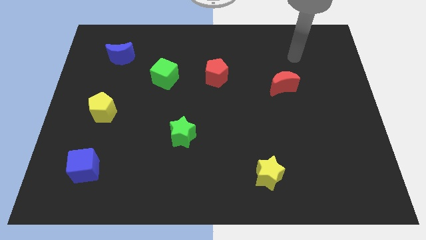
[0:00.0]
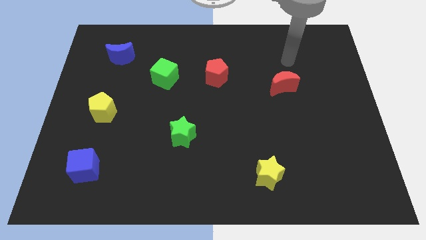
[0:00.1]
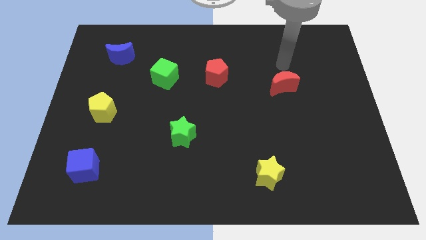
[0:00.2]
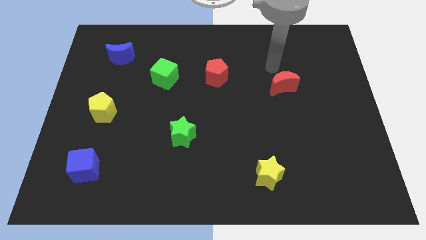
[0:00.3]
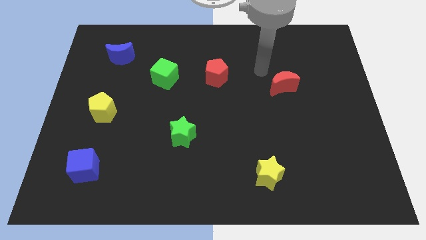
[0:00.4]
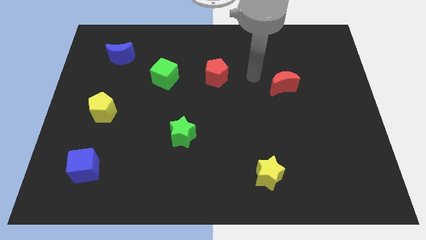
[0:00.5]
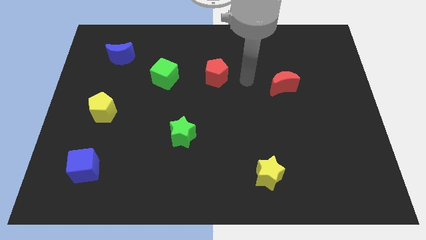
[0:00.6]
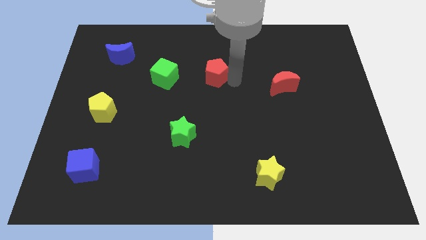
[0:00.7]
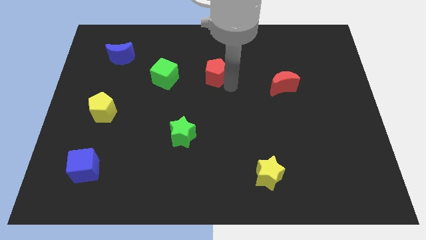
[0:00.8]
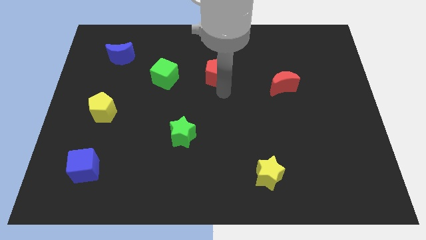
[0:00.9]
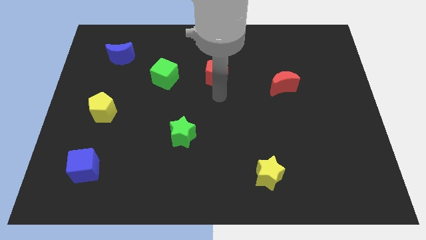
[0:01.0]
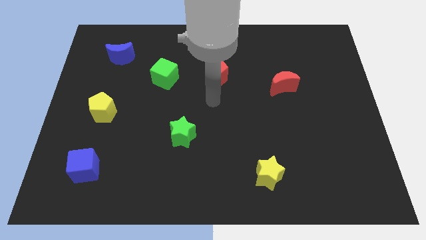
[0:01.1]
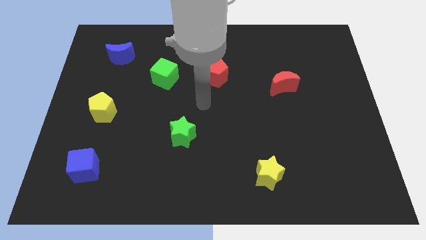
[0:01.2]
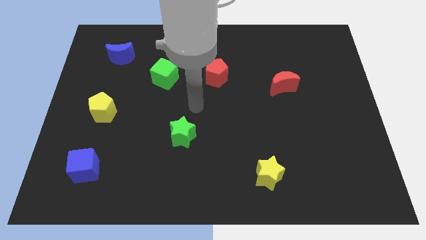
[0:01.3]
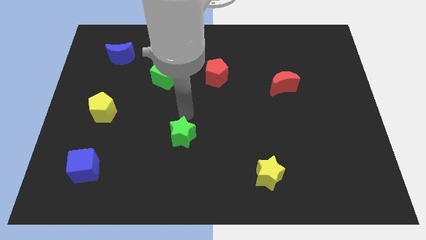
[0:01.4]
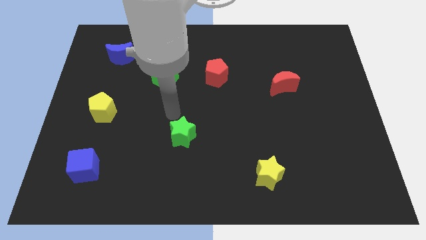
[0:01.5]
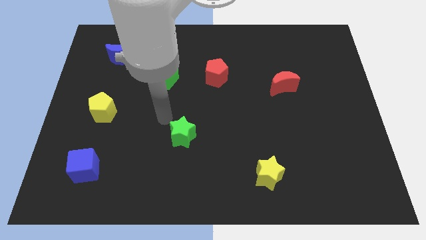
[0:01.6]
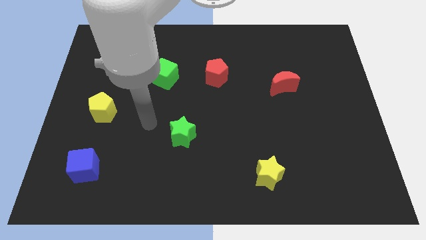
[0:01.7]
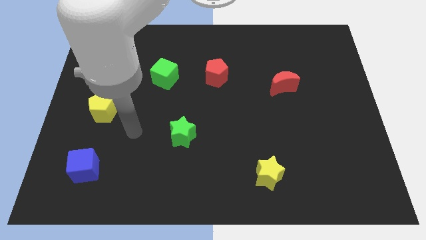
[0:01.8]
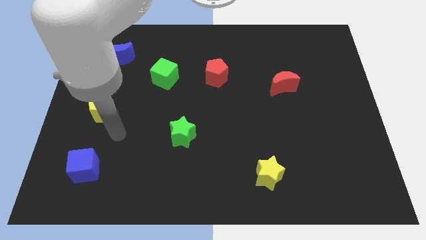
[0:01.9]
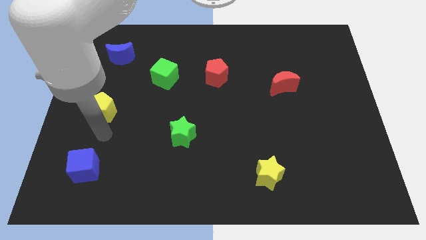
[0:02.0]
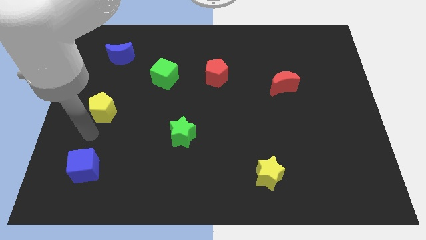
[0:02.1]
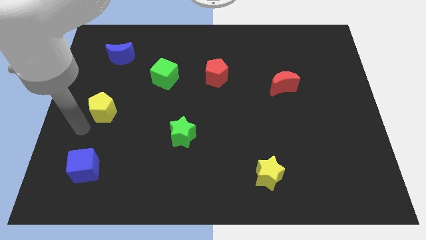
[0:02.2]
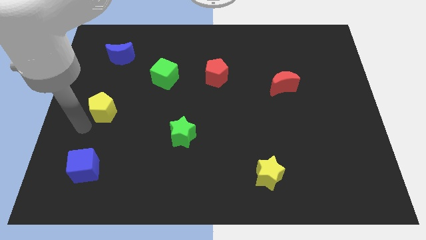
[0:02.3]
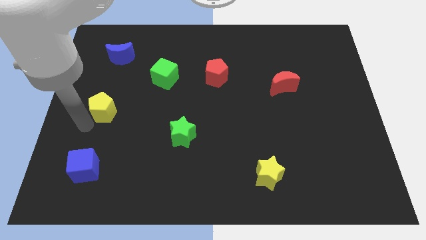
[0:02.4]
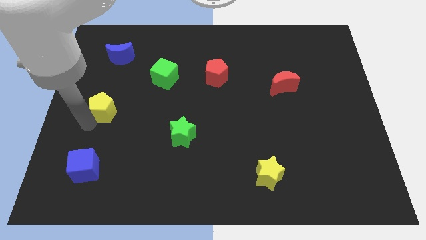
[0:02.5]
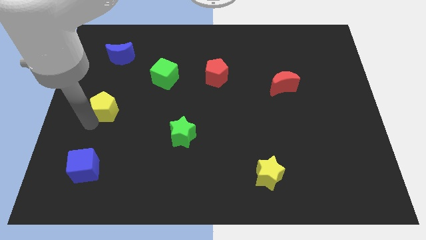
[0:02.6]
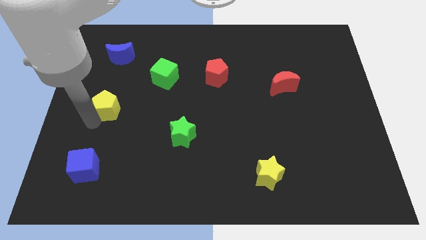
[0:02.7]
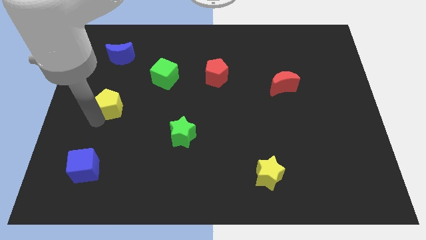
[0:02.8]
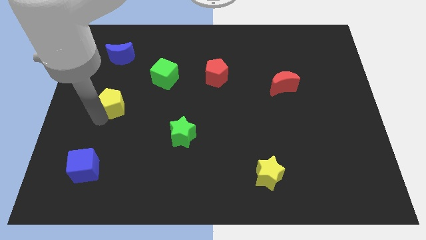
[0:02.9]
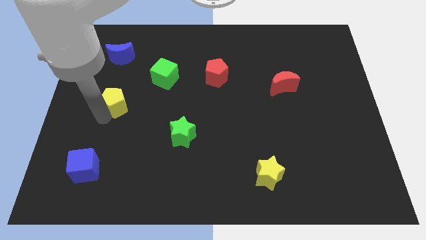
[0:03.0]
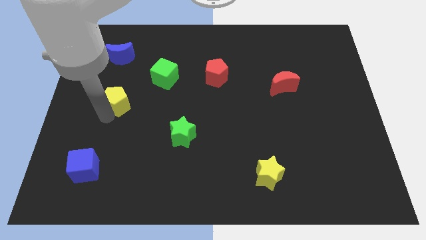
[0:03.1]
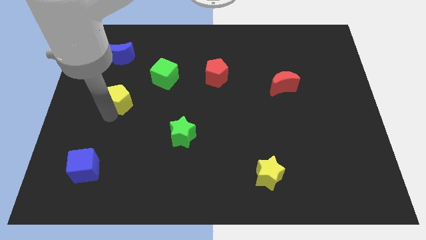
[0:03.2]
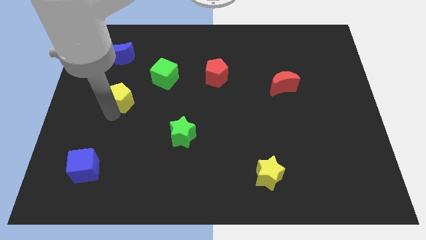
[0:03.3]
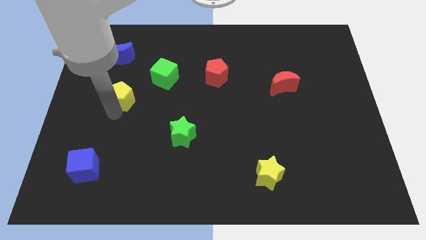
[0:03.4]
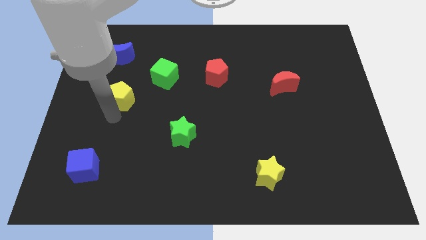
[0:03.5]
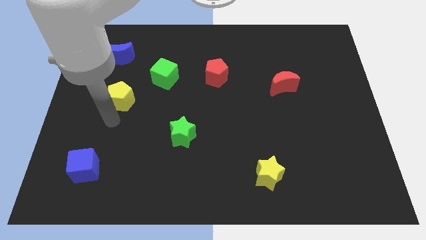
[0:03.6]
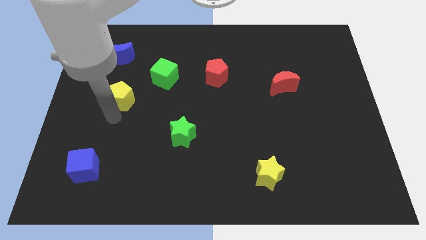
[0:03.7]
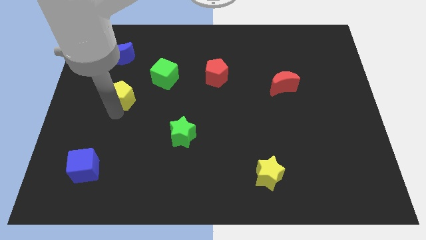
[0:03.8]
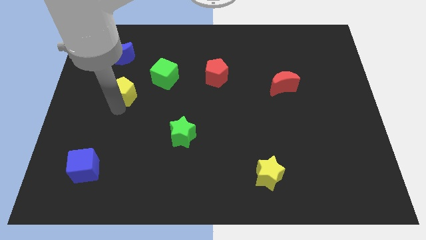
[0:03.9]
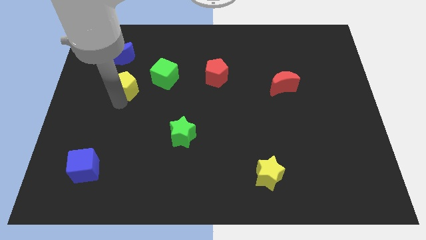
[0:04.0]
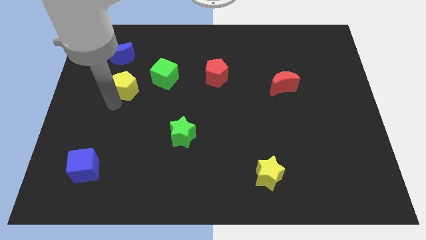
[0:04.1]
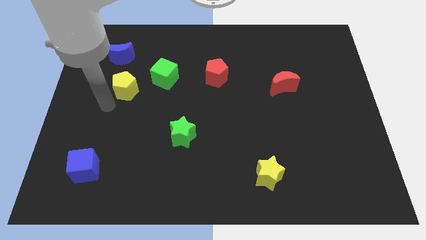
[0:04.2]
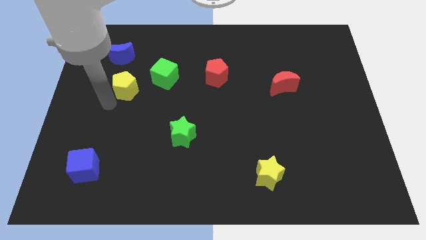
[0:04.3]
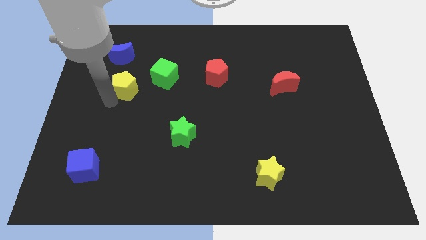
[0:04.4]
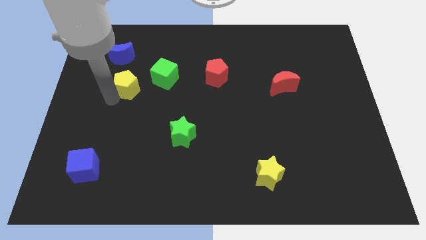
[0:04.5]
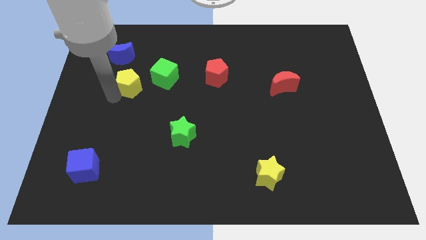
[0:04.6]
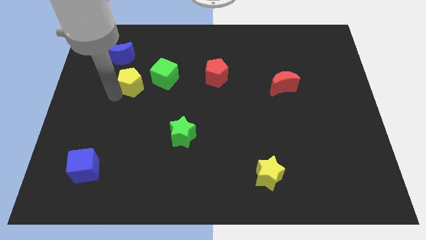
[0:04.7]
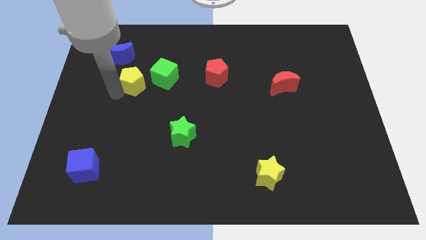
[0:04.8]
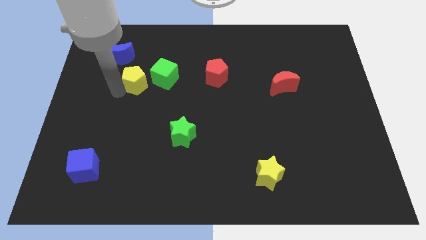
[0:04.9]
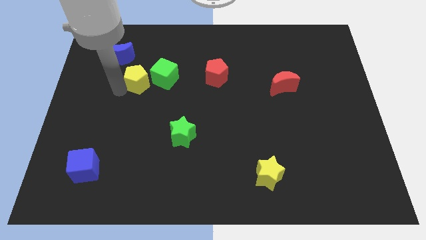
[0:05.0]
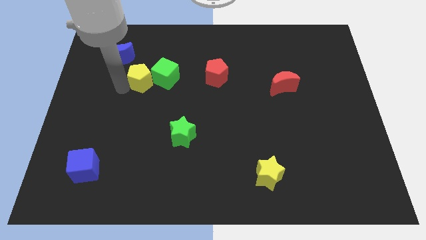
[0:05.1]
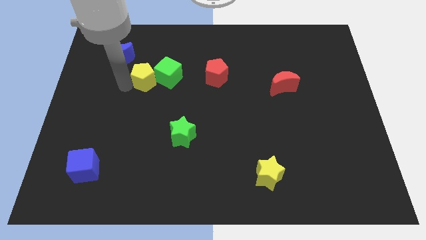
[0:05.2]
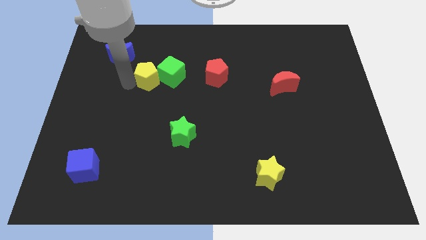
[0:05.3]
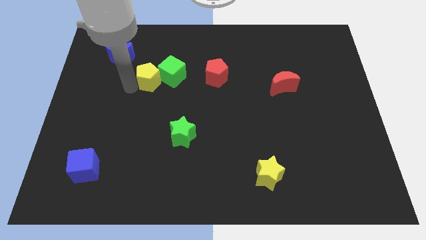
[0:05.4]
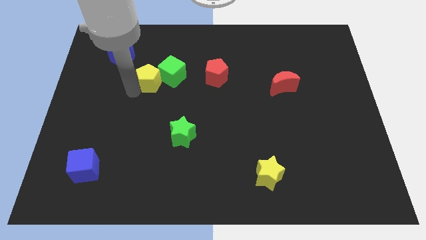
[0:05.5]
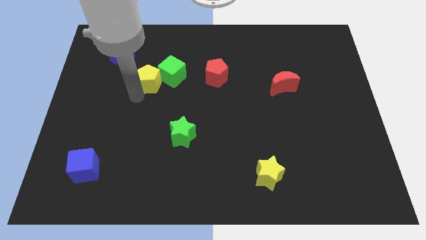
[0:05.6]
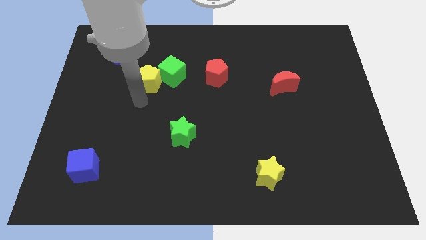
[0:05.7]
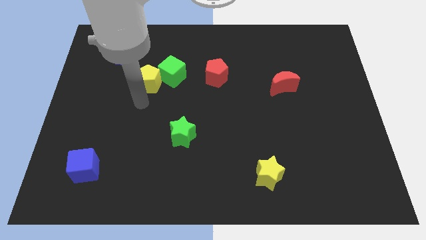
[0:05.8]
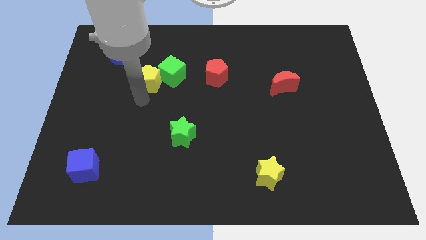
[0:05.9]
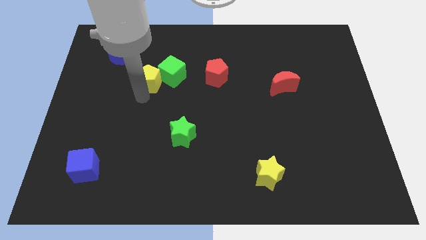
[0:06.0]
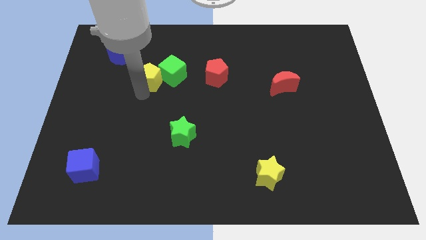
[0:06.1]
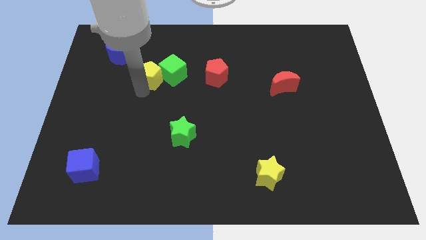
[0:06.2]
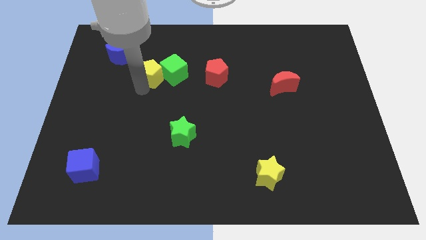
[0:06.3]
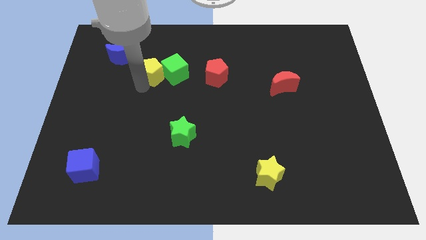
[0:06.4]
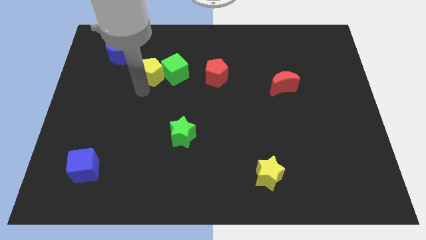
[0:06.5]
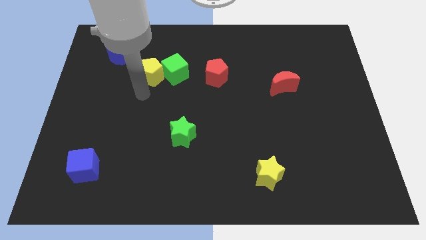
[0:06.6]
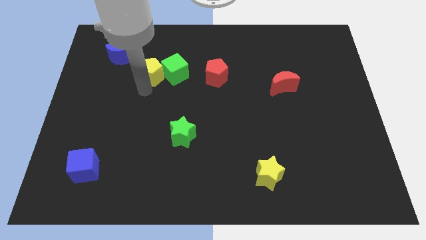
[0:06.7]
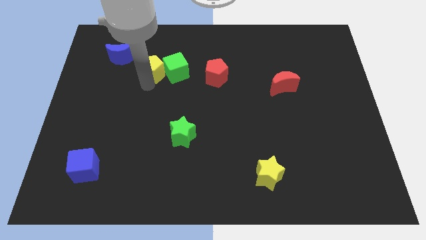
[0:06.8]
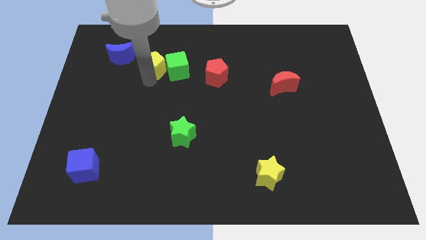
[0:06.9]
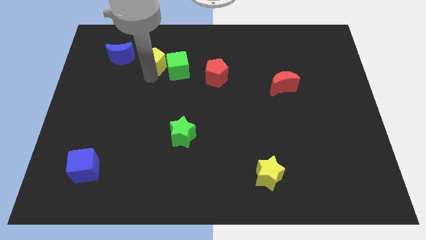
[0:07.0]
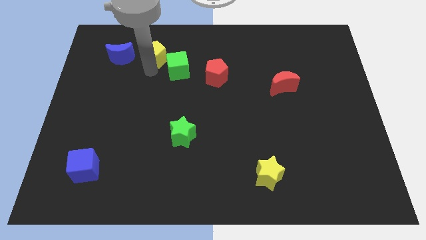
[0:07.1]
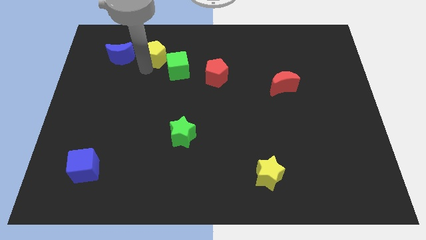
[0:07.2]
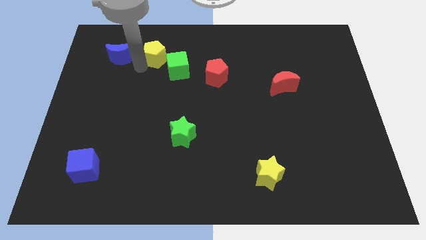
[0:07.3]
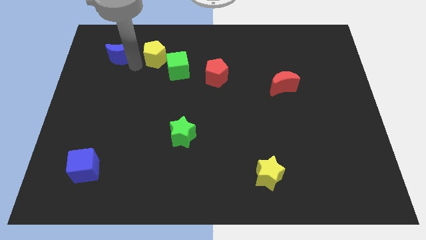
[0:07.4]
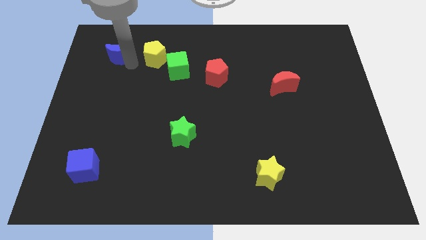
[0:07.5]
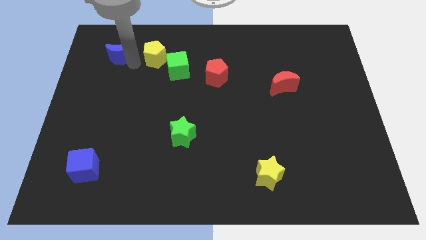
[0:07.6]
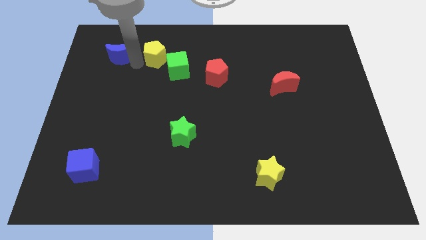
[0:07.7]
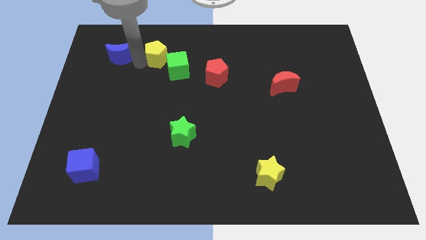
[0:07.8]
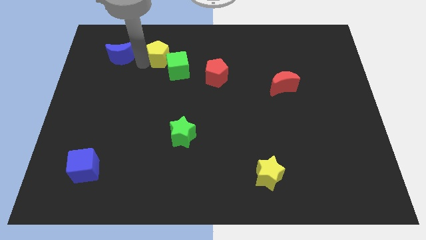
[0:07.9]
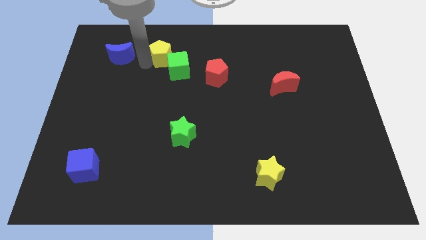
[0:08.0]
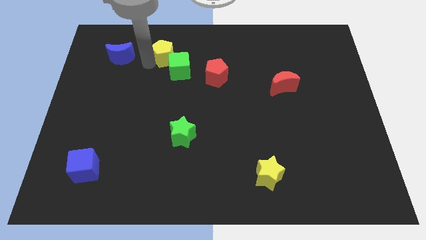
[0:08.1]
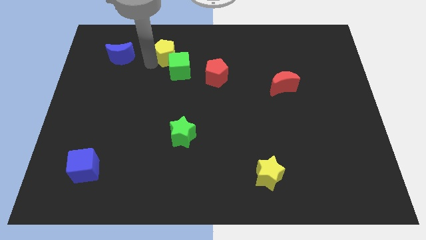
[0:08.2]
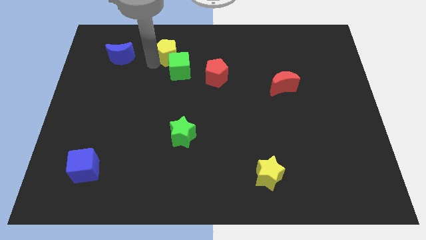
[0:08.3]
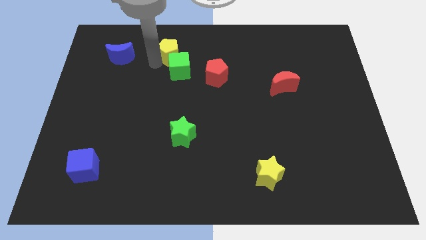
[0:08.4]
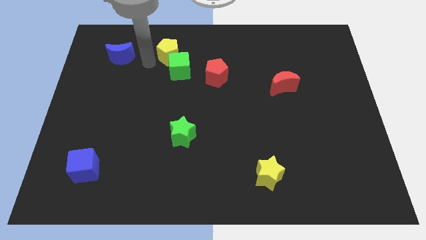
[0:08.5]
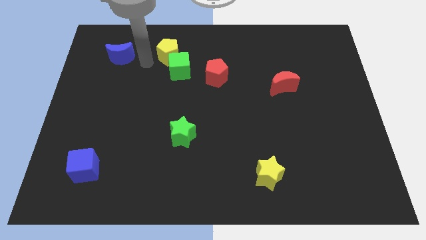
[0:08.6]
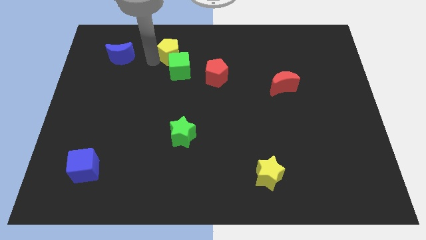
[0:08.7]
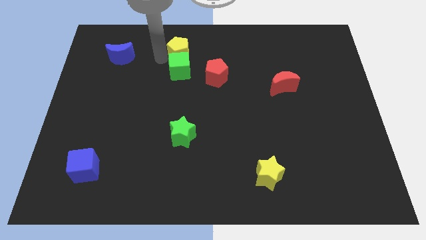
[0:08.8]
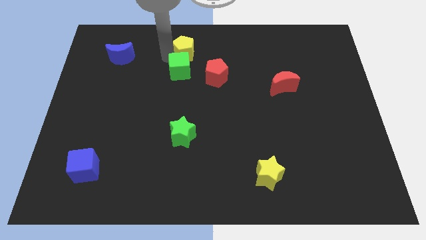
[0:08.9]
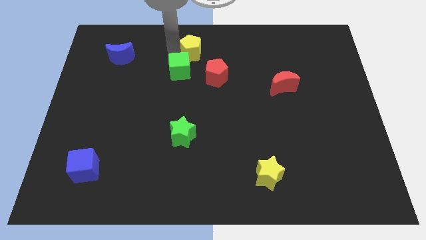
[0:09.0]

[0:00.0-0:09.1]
slide the yellow pentagon to the top side
